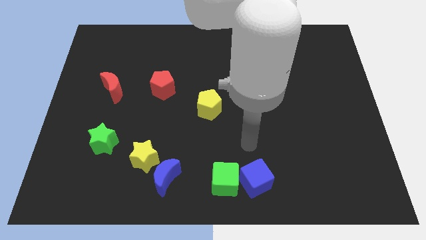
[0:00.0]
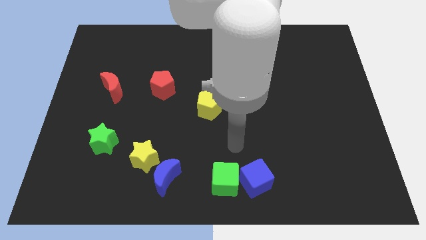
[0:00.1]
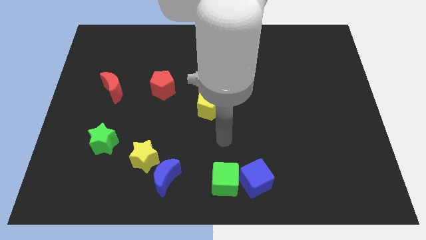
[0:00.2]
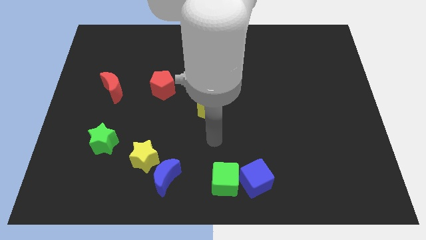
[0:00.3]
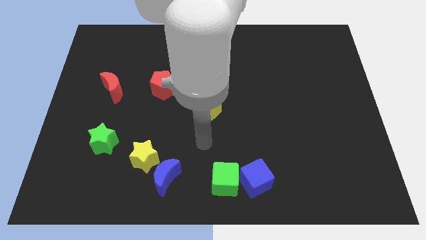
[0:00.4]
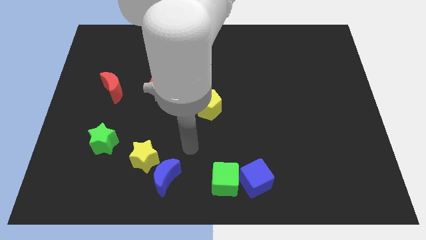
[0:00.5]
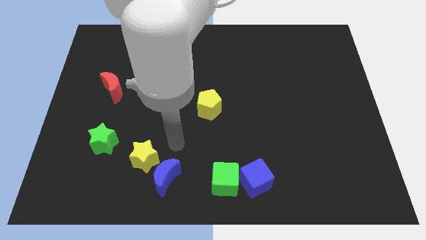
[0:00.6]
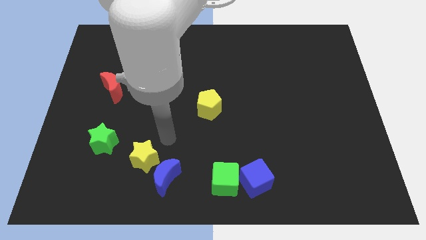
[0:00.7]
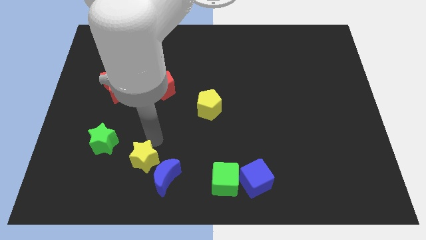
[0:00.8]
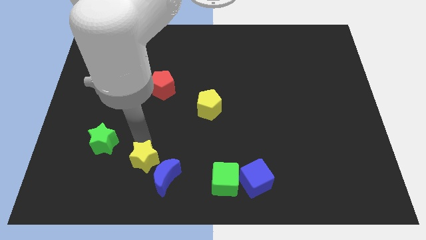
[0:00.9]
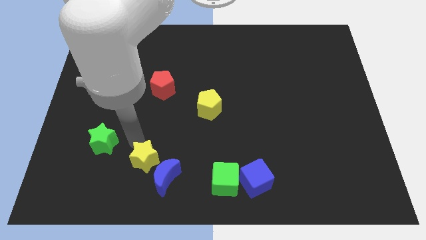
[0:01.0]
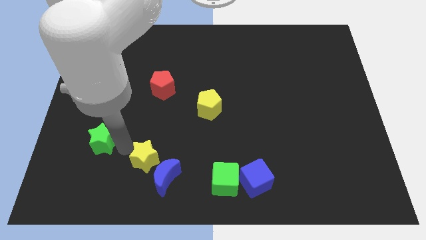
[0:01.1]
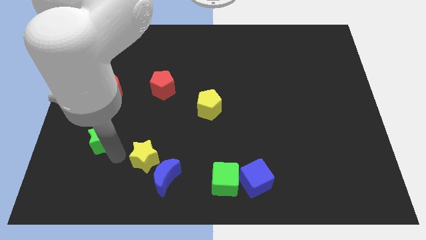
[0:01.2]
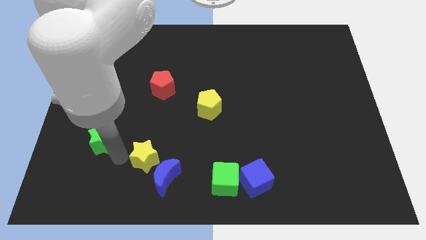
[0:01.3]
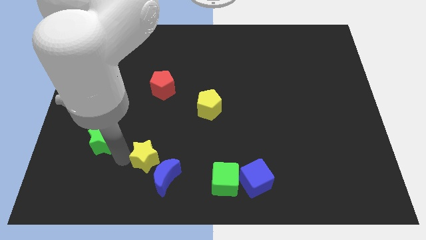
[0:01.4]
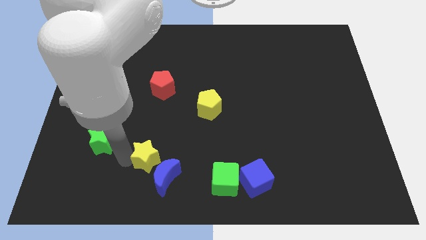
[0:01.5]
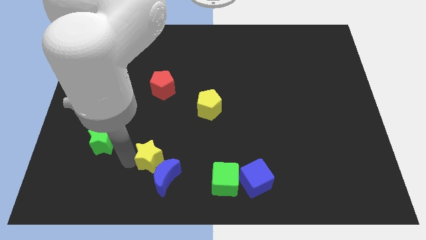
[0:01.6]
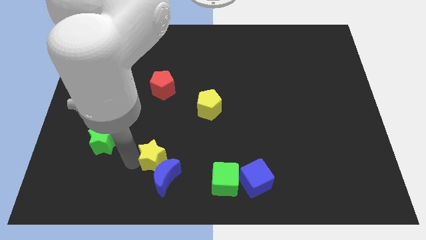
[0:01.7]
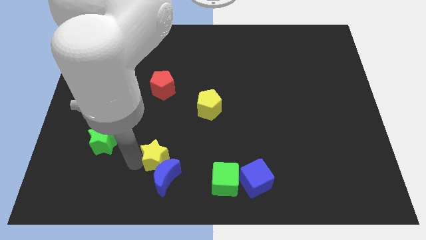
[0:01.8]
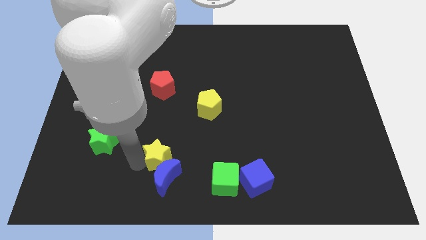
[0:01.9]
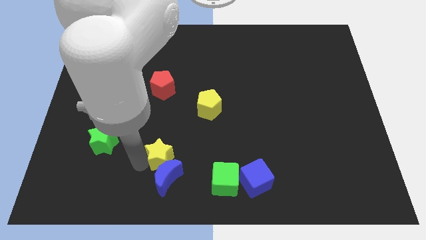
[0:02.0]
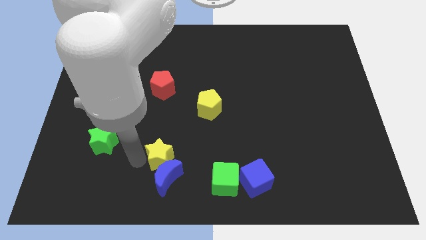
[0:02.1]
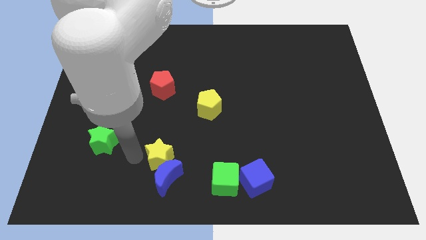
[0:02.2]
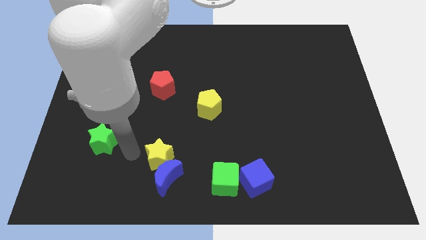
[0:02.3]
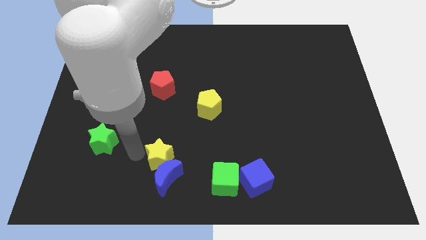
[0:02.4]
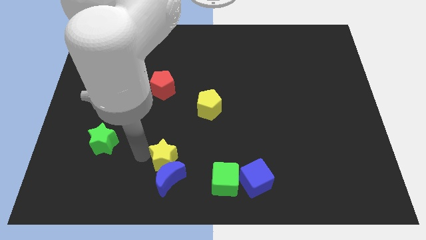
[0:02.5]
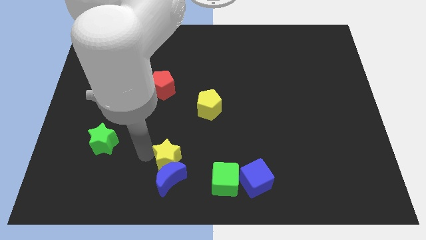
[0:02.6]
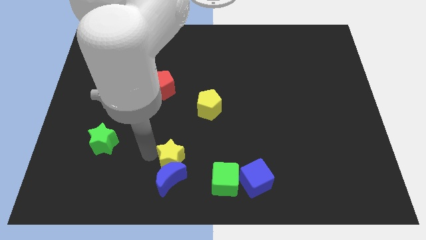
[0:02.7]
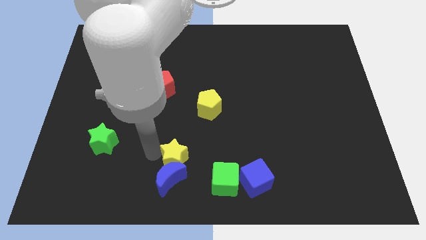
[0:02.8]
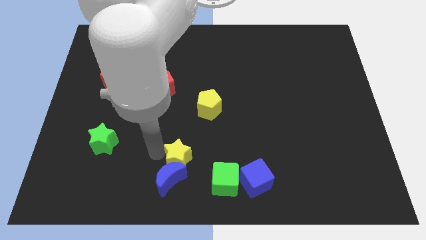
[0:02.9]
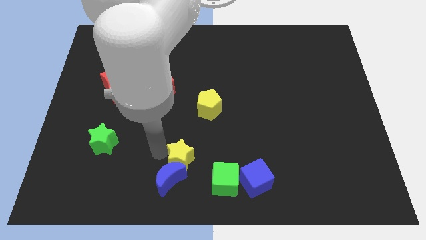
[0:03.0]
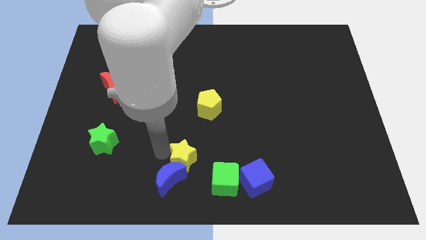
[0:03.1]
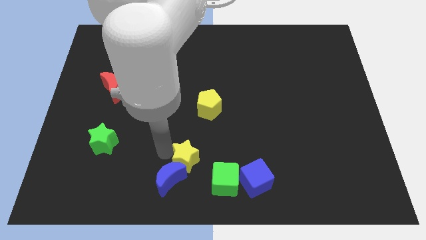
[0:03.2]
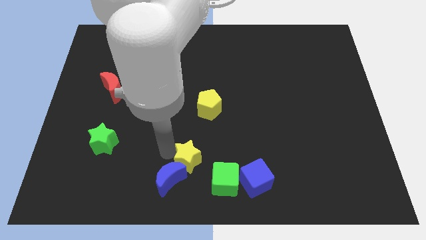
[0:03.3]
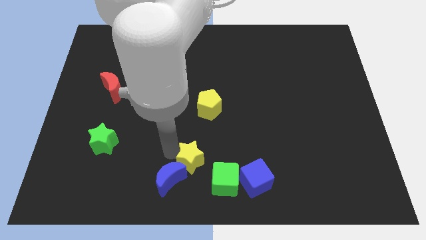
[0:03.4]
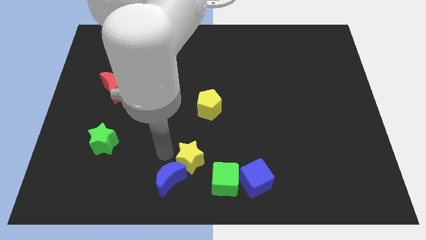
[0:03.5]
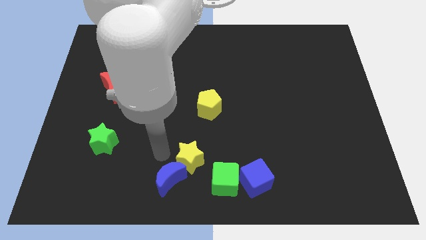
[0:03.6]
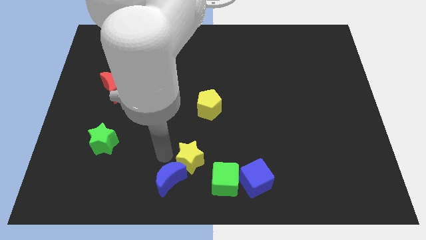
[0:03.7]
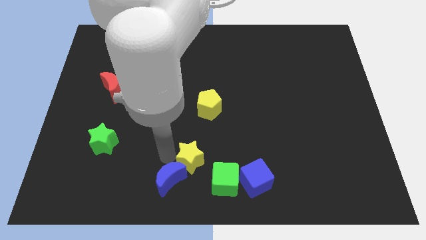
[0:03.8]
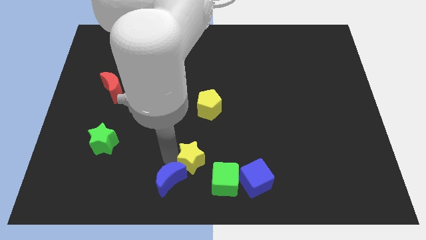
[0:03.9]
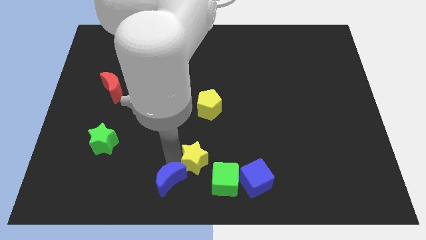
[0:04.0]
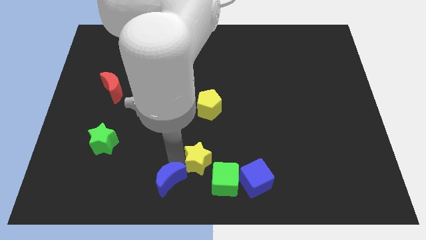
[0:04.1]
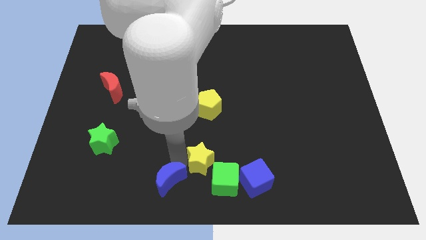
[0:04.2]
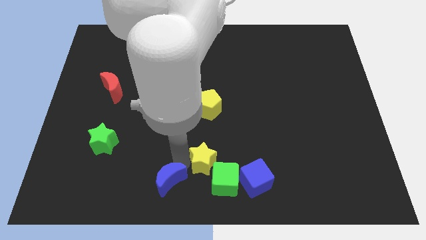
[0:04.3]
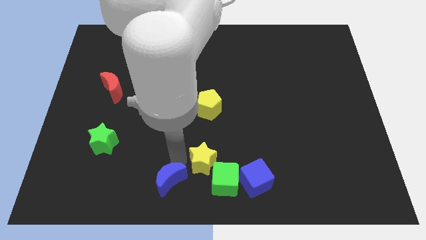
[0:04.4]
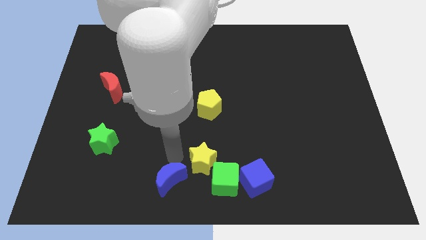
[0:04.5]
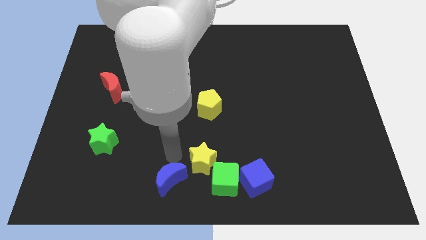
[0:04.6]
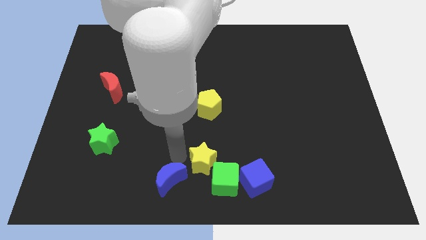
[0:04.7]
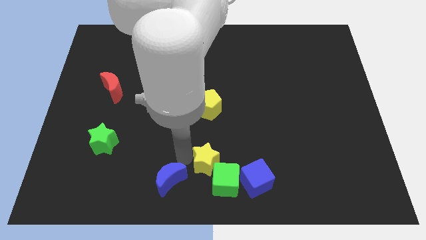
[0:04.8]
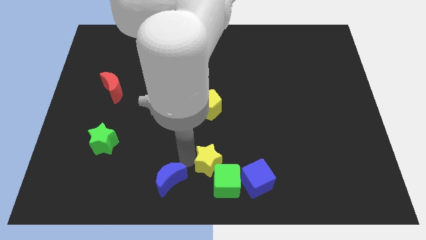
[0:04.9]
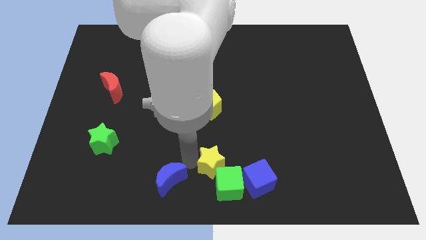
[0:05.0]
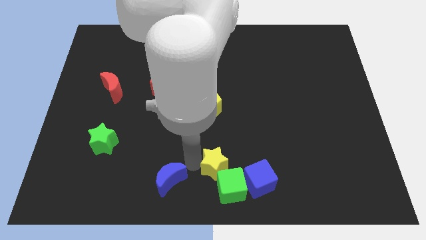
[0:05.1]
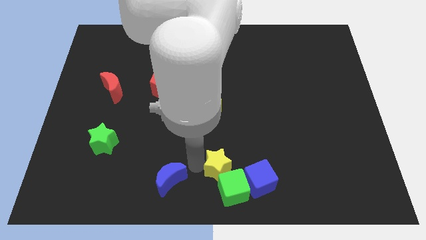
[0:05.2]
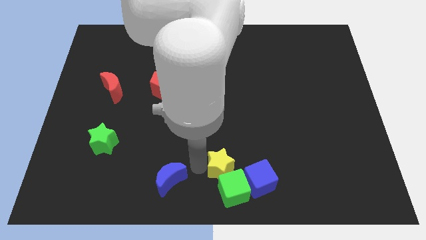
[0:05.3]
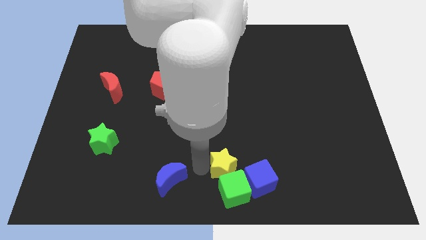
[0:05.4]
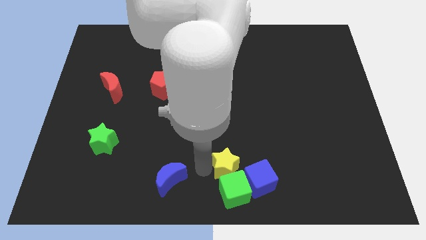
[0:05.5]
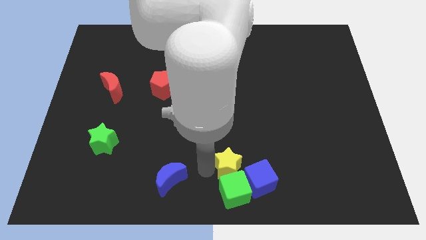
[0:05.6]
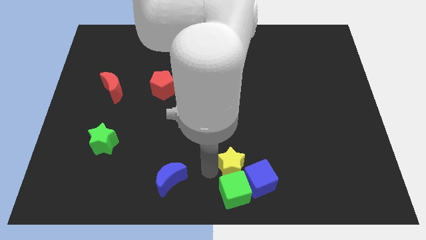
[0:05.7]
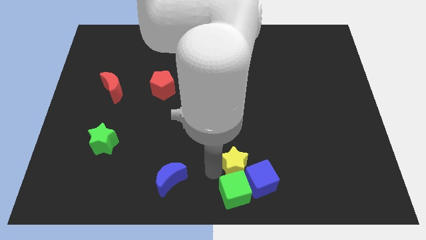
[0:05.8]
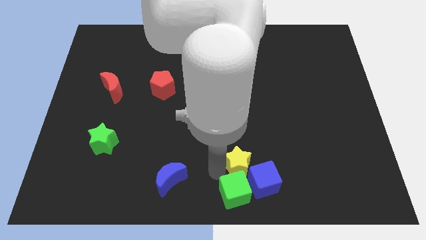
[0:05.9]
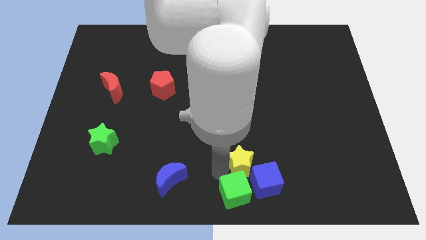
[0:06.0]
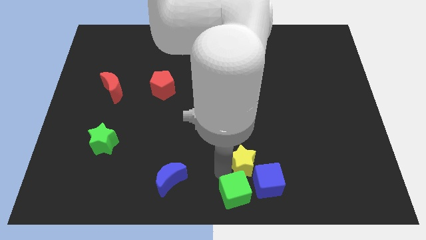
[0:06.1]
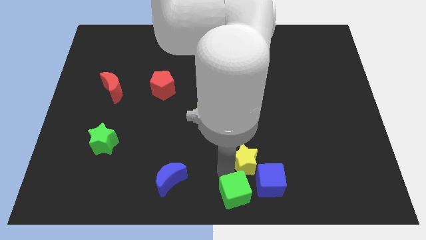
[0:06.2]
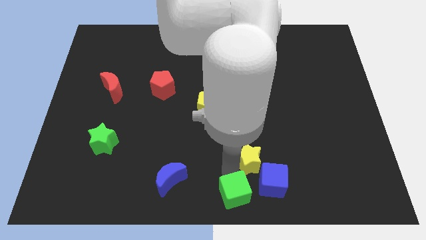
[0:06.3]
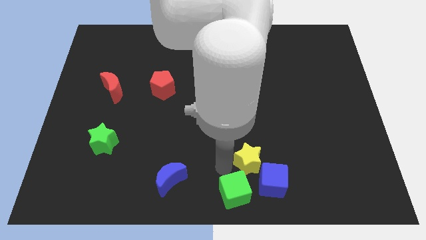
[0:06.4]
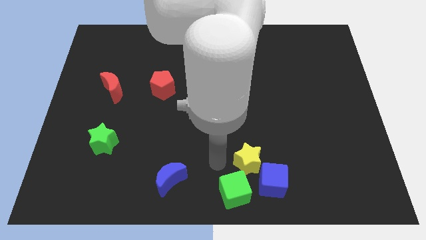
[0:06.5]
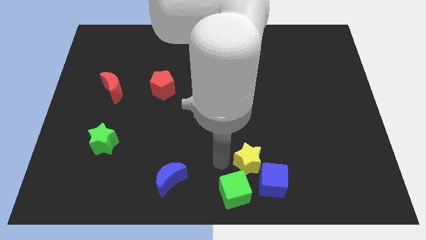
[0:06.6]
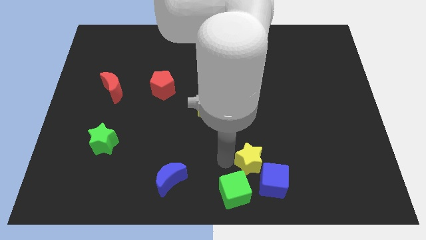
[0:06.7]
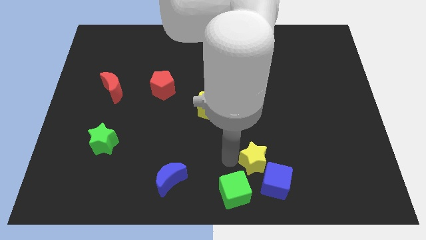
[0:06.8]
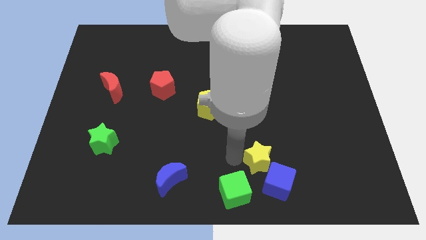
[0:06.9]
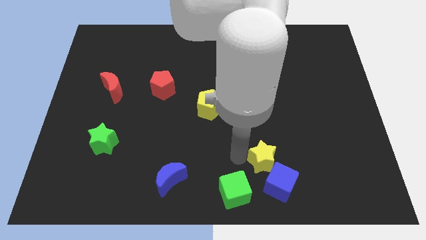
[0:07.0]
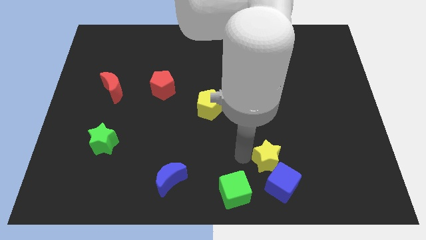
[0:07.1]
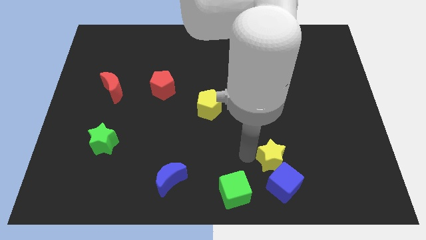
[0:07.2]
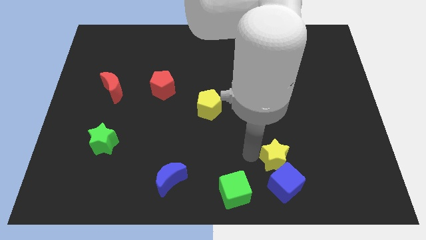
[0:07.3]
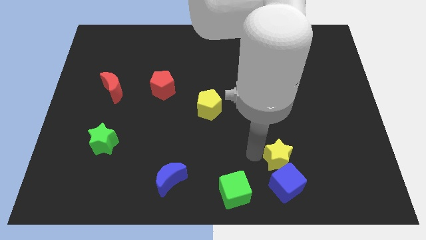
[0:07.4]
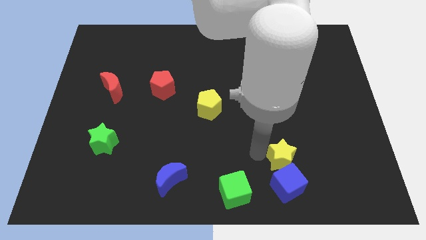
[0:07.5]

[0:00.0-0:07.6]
push the yellow star diagonally up and to the right of the blue cube
